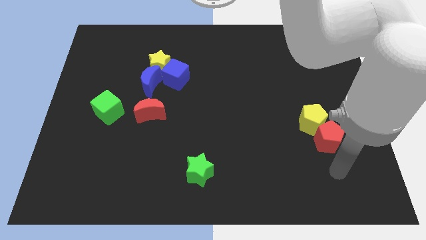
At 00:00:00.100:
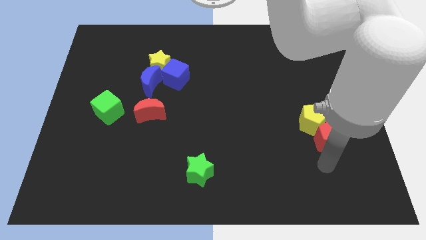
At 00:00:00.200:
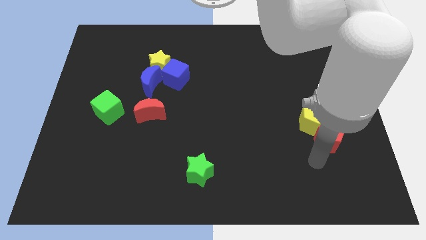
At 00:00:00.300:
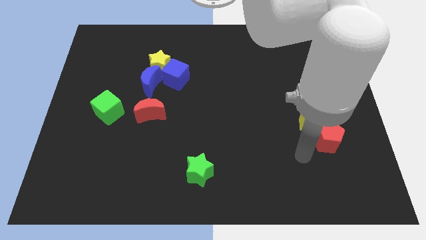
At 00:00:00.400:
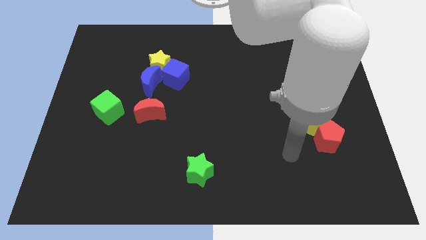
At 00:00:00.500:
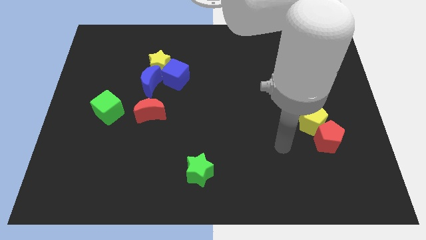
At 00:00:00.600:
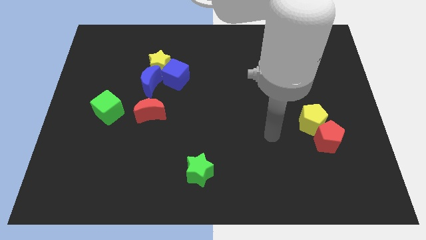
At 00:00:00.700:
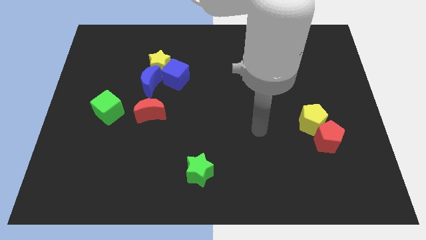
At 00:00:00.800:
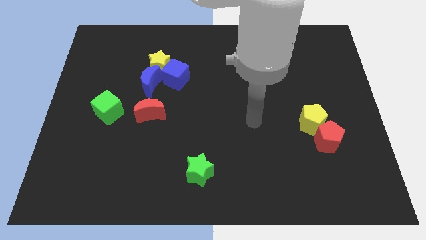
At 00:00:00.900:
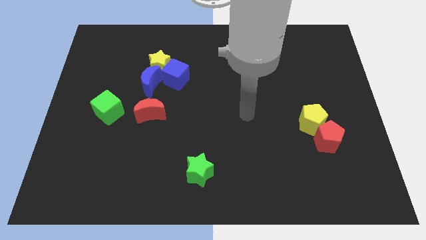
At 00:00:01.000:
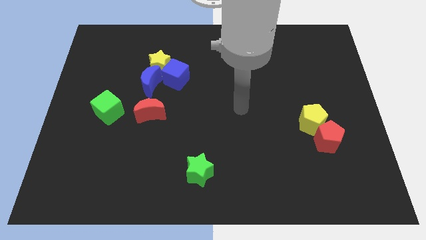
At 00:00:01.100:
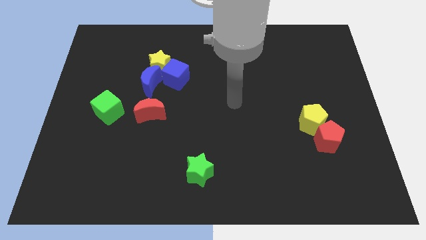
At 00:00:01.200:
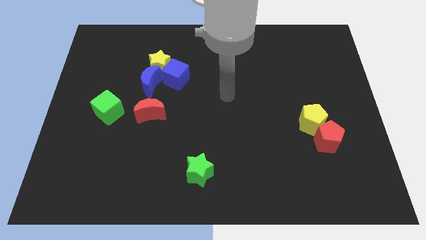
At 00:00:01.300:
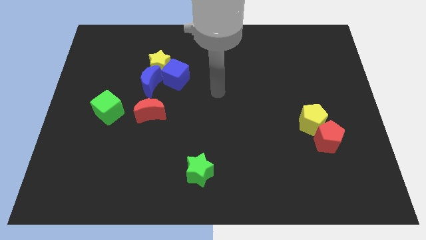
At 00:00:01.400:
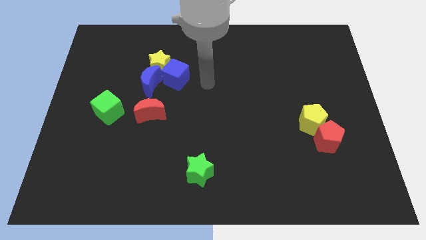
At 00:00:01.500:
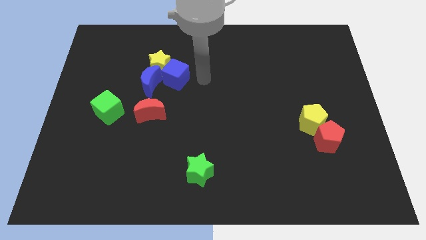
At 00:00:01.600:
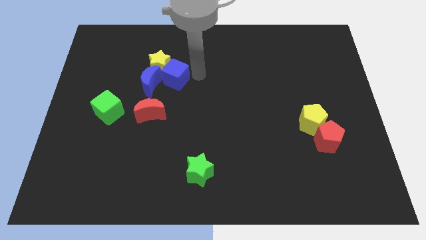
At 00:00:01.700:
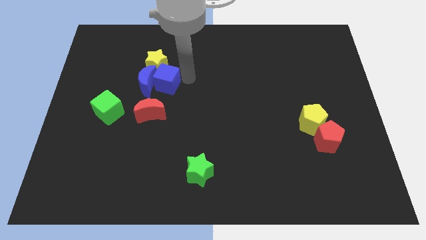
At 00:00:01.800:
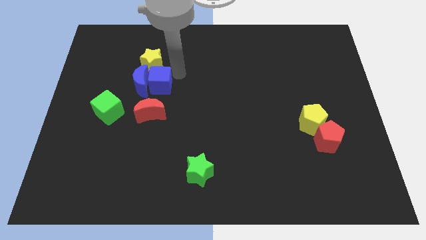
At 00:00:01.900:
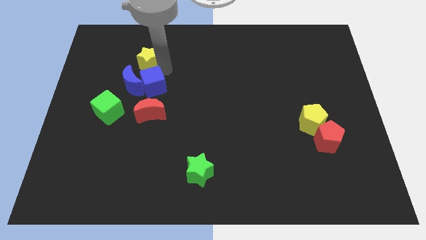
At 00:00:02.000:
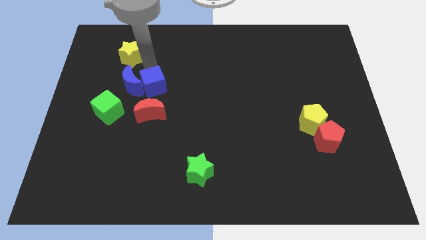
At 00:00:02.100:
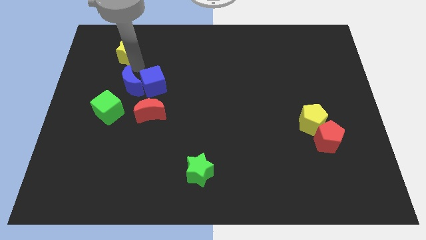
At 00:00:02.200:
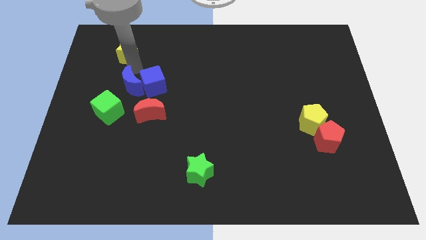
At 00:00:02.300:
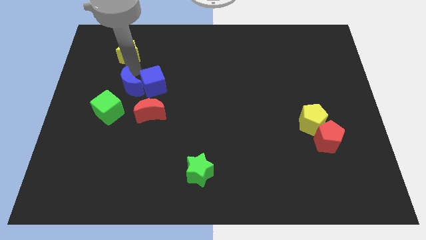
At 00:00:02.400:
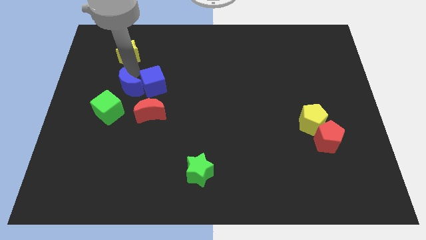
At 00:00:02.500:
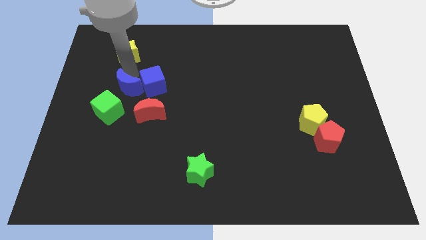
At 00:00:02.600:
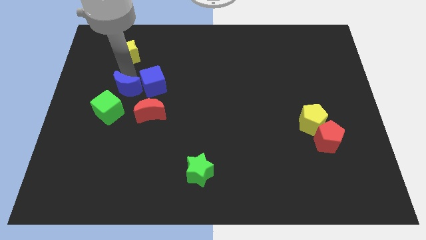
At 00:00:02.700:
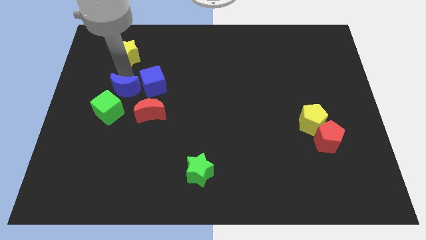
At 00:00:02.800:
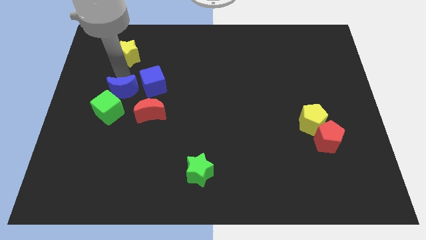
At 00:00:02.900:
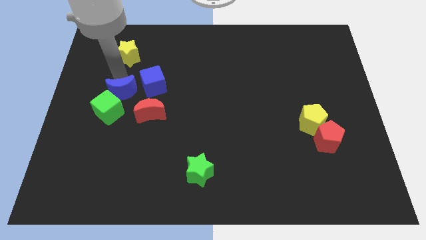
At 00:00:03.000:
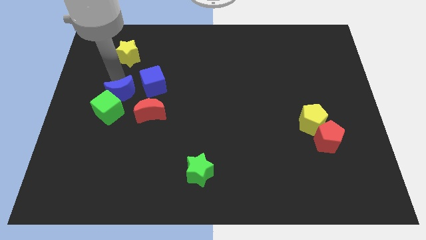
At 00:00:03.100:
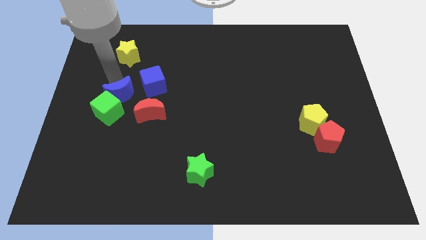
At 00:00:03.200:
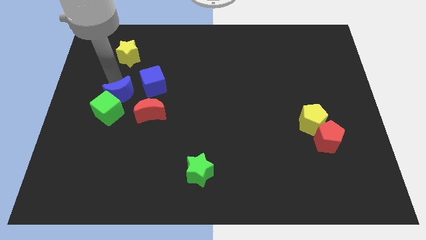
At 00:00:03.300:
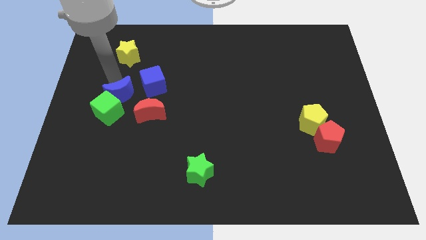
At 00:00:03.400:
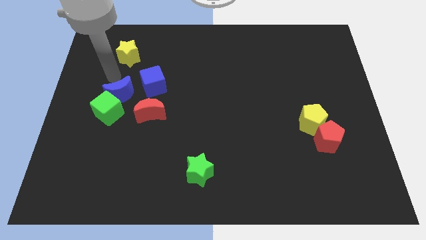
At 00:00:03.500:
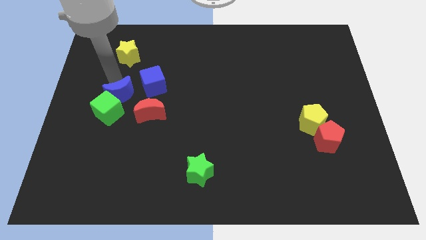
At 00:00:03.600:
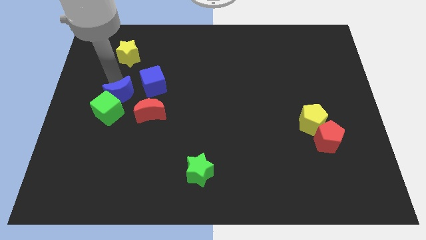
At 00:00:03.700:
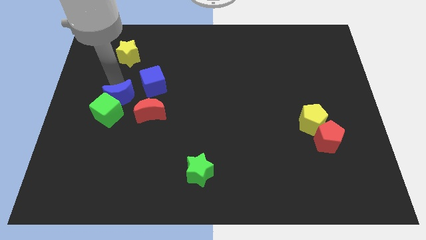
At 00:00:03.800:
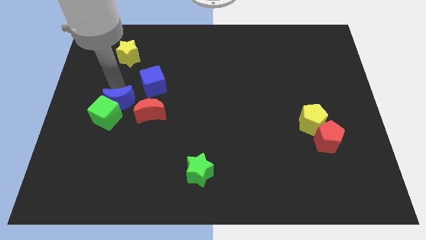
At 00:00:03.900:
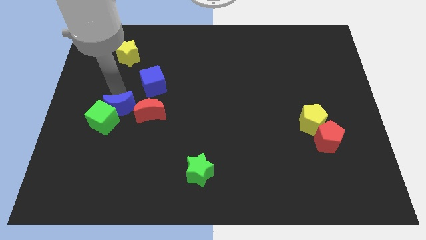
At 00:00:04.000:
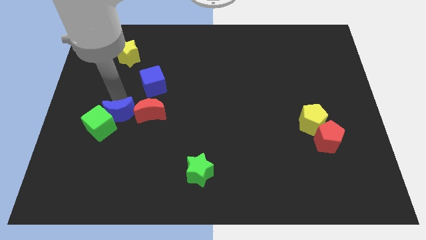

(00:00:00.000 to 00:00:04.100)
slide the blue moon downwards slightly

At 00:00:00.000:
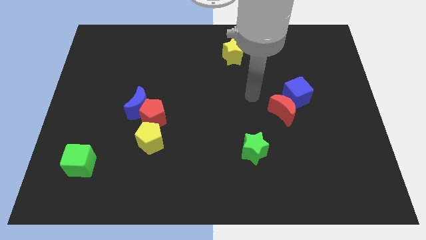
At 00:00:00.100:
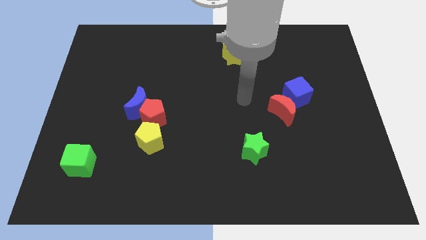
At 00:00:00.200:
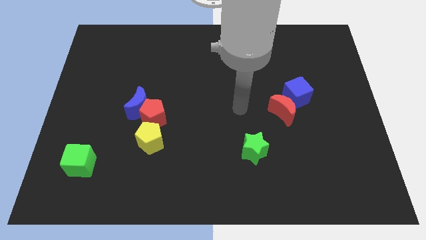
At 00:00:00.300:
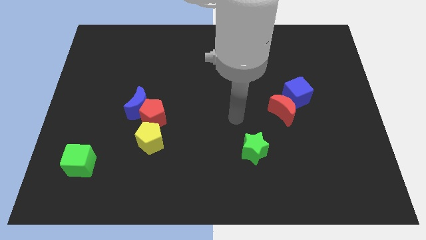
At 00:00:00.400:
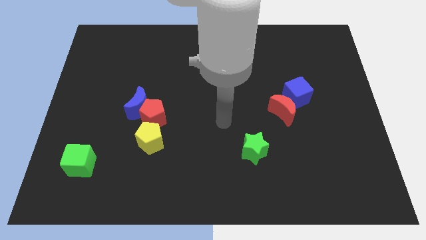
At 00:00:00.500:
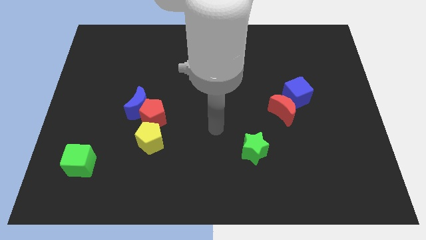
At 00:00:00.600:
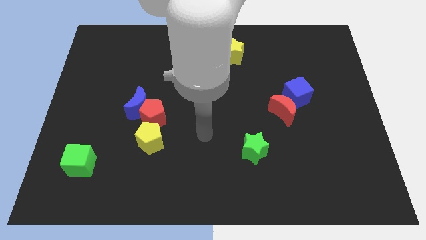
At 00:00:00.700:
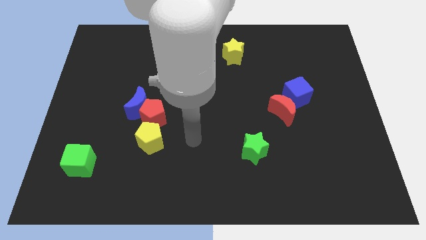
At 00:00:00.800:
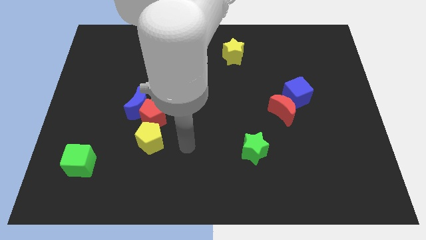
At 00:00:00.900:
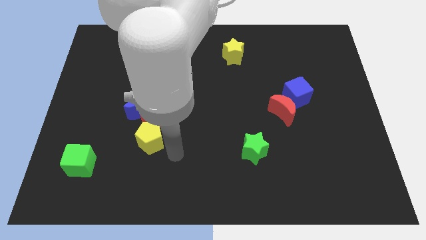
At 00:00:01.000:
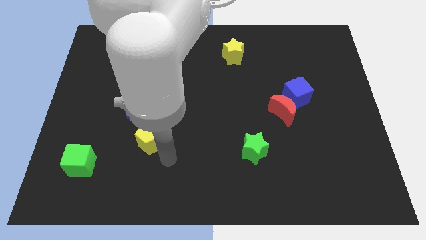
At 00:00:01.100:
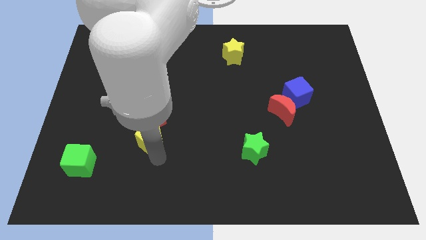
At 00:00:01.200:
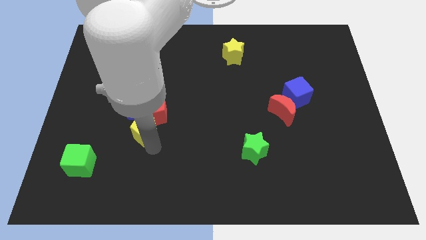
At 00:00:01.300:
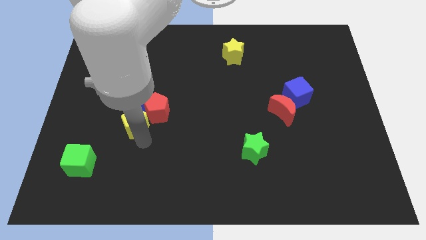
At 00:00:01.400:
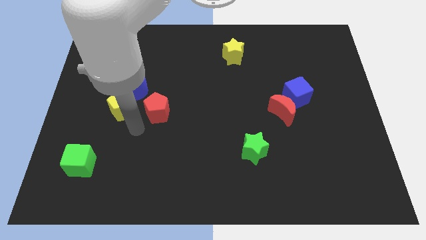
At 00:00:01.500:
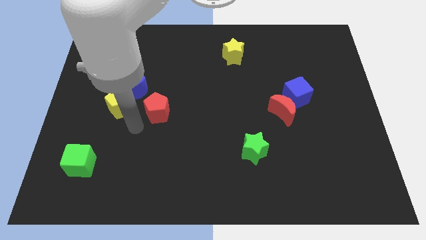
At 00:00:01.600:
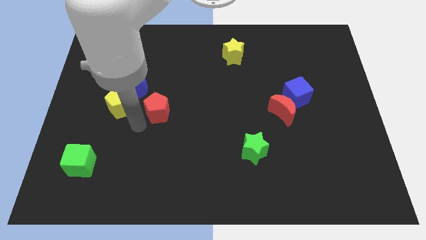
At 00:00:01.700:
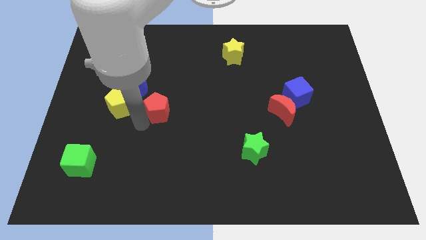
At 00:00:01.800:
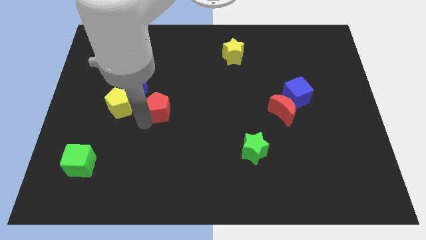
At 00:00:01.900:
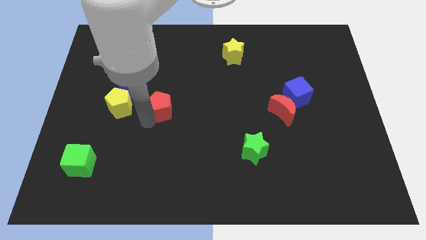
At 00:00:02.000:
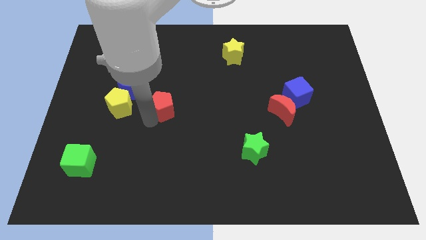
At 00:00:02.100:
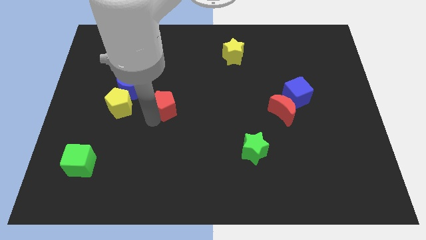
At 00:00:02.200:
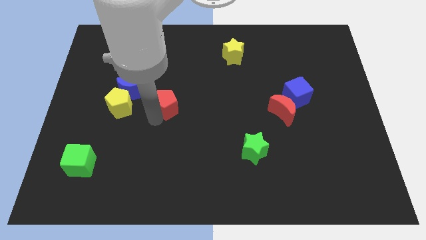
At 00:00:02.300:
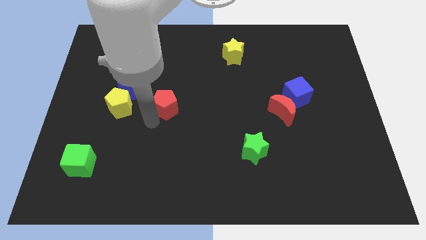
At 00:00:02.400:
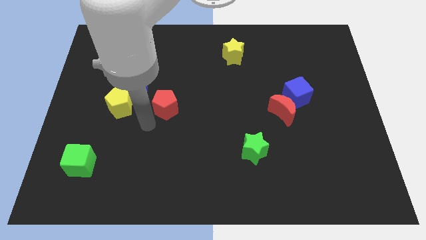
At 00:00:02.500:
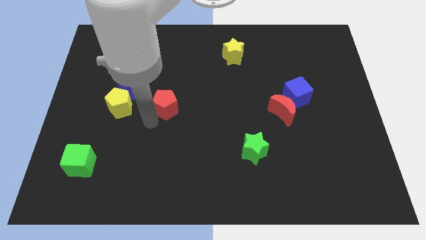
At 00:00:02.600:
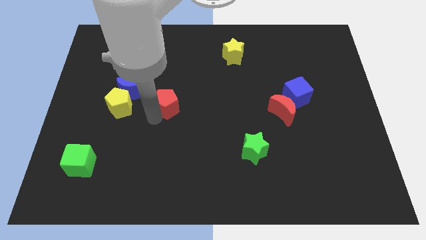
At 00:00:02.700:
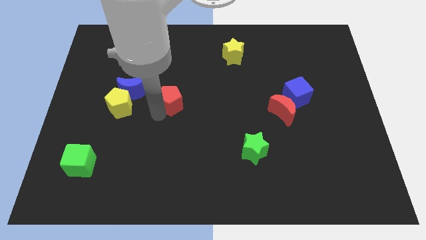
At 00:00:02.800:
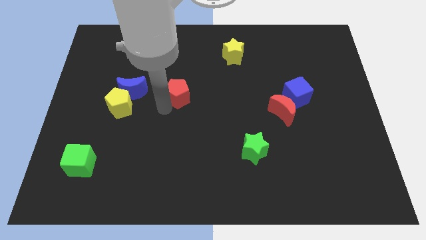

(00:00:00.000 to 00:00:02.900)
slightly push the red pentagon up and right

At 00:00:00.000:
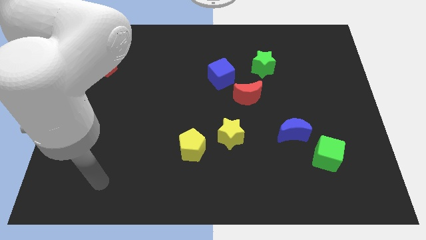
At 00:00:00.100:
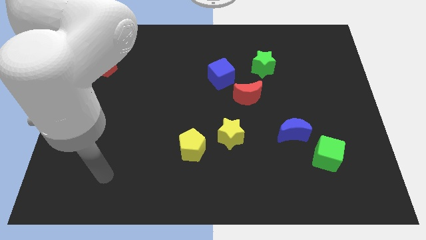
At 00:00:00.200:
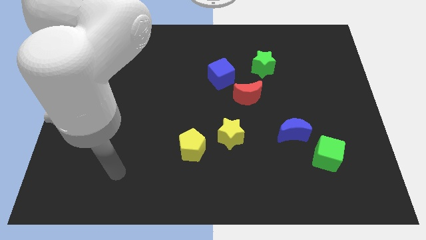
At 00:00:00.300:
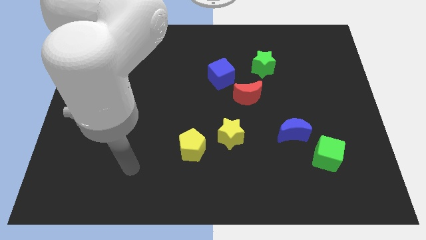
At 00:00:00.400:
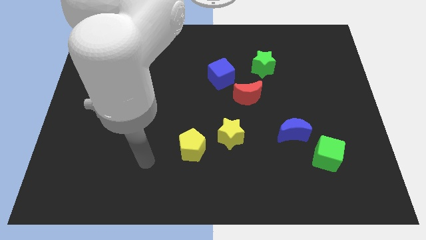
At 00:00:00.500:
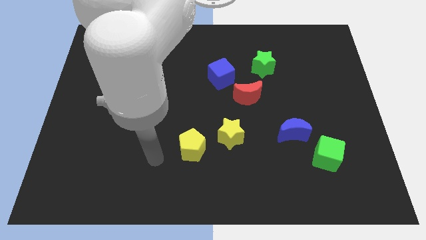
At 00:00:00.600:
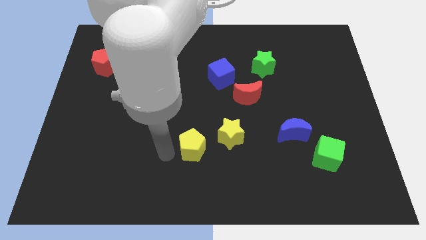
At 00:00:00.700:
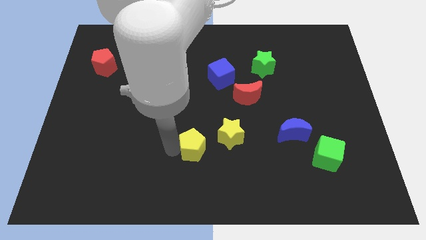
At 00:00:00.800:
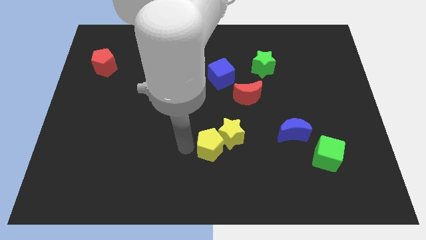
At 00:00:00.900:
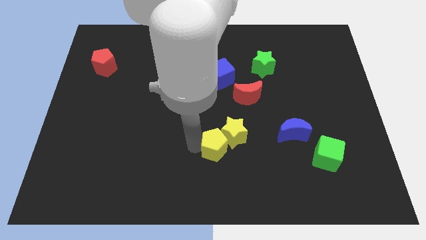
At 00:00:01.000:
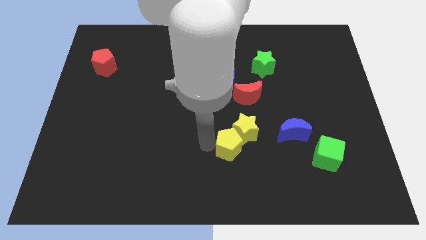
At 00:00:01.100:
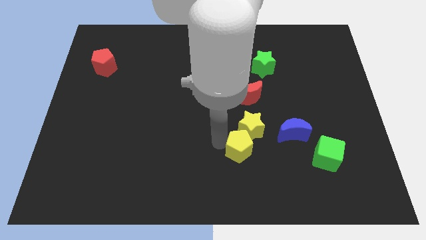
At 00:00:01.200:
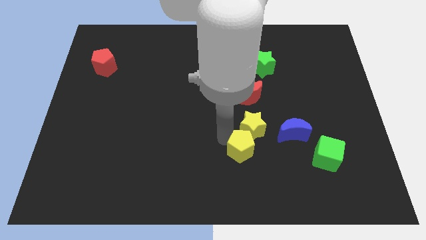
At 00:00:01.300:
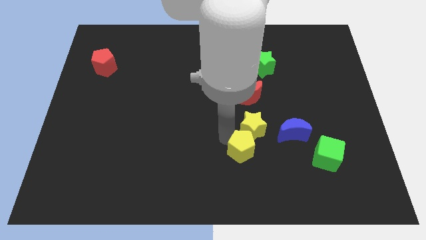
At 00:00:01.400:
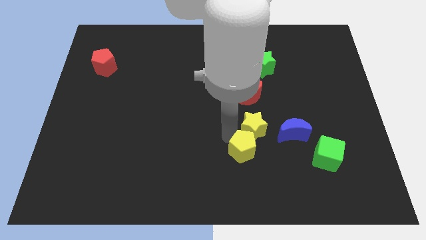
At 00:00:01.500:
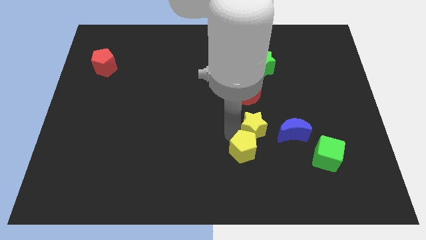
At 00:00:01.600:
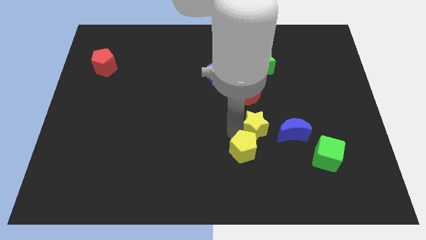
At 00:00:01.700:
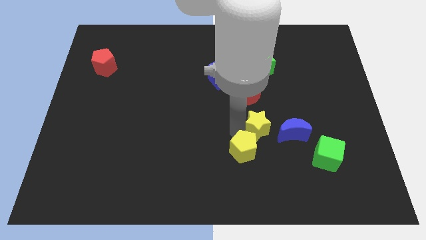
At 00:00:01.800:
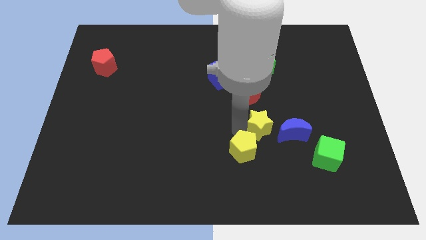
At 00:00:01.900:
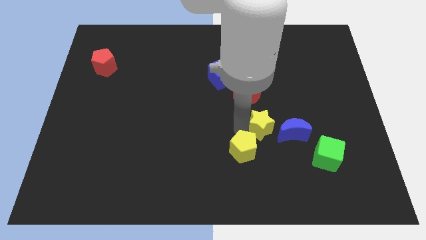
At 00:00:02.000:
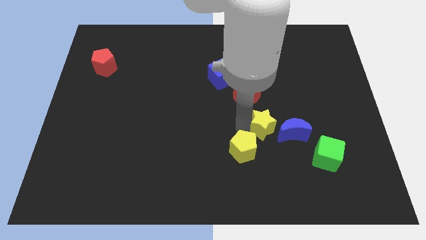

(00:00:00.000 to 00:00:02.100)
push the yellow star right a bit
